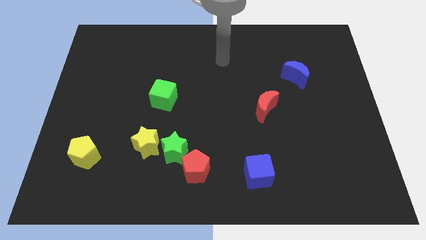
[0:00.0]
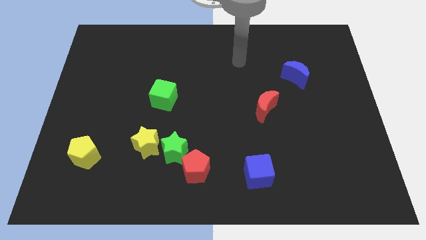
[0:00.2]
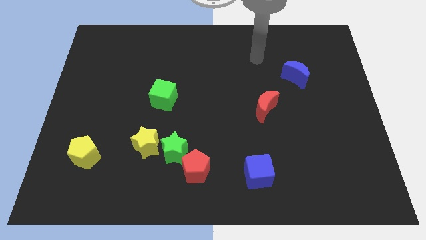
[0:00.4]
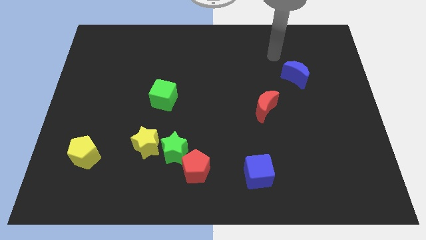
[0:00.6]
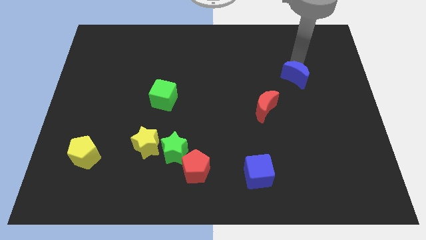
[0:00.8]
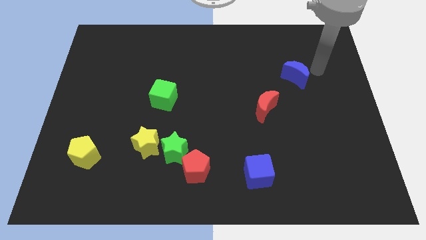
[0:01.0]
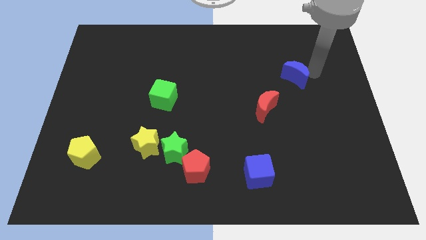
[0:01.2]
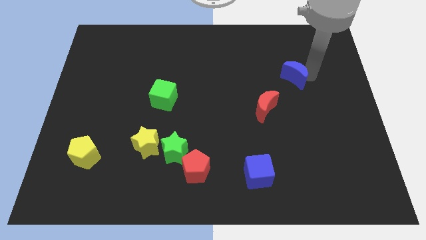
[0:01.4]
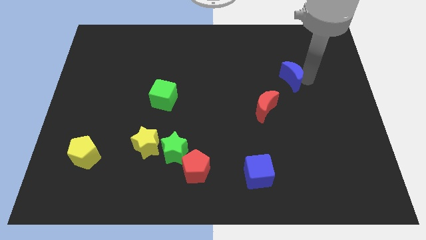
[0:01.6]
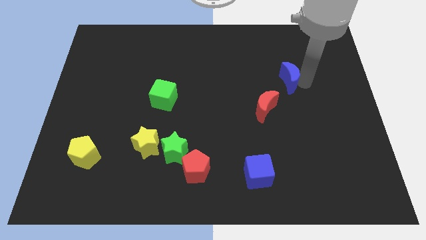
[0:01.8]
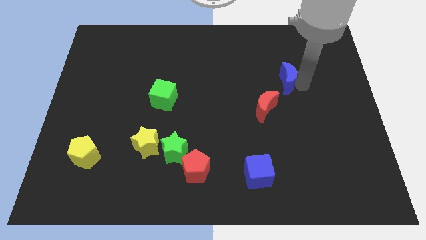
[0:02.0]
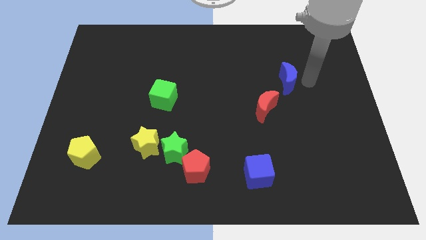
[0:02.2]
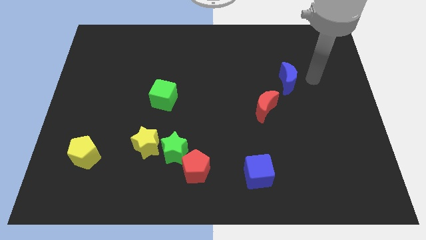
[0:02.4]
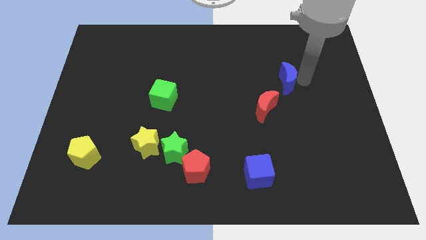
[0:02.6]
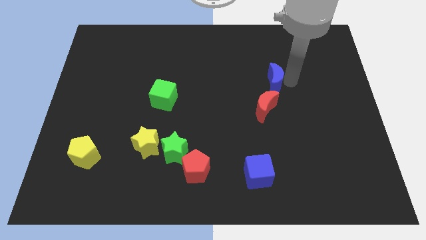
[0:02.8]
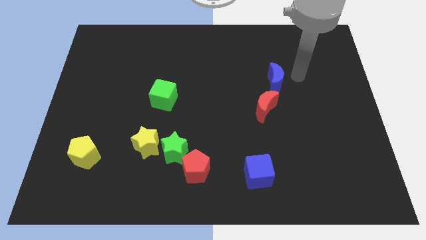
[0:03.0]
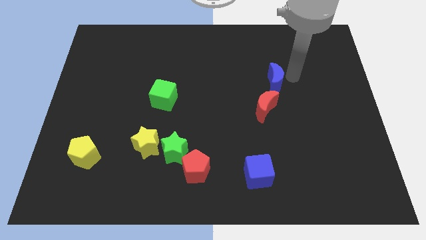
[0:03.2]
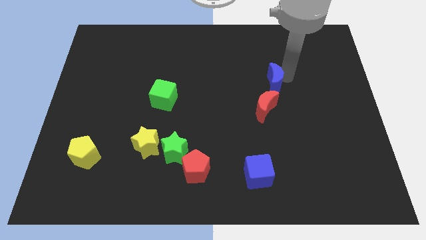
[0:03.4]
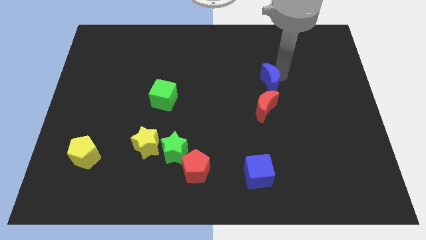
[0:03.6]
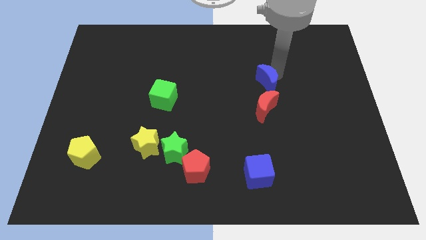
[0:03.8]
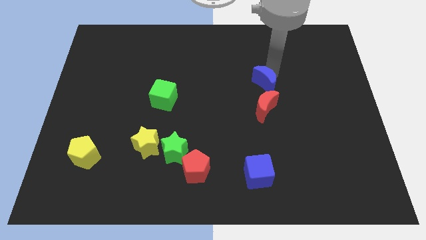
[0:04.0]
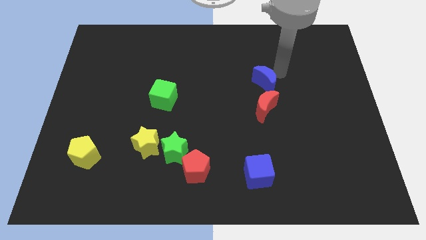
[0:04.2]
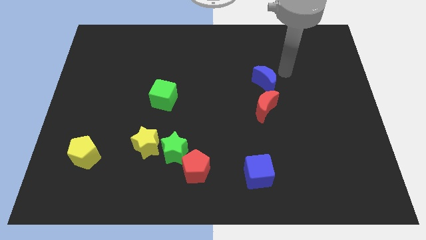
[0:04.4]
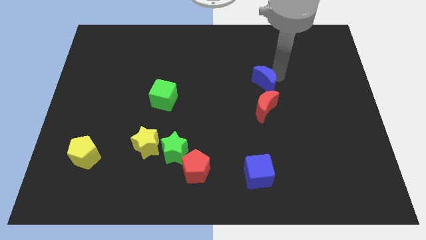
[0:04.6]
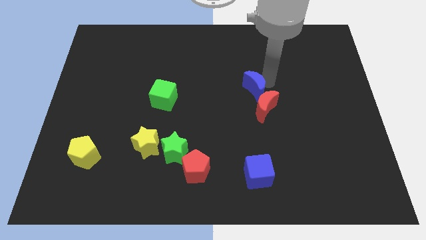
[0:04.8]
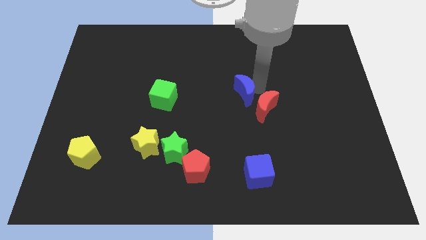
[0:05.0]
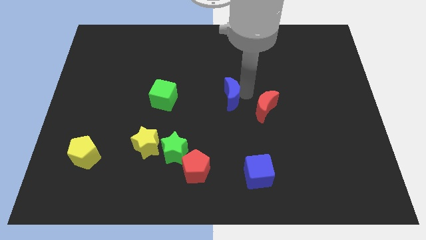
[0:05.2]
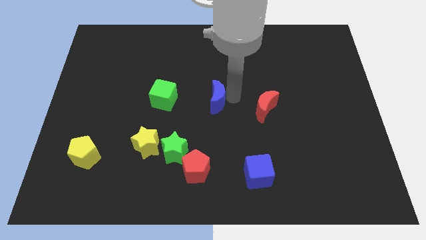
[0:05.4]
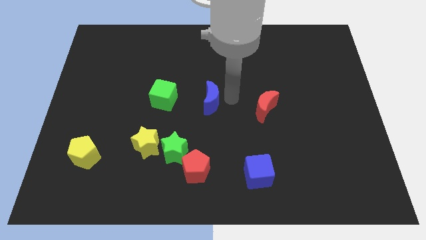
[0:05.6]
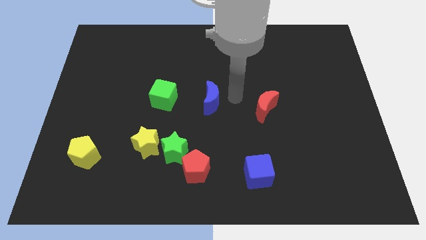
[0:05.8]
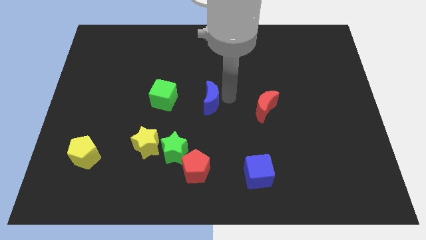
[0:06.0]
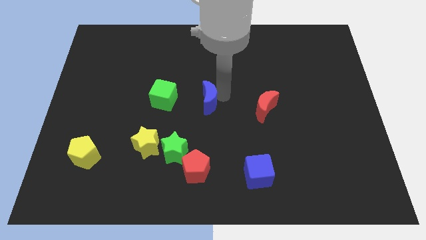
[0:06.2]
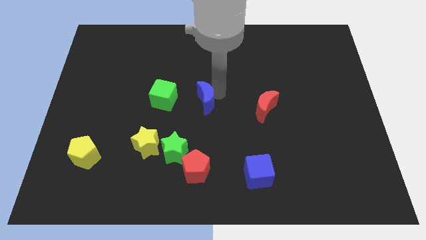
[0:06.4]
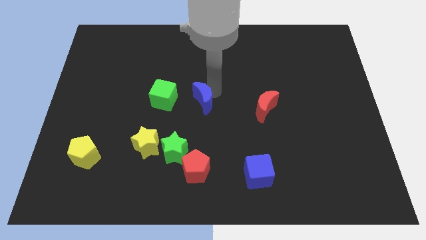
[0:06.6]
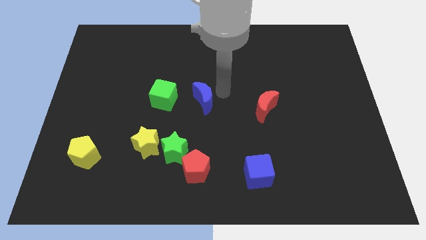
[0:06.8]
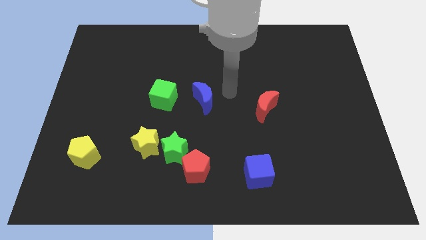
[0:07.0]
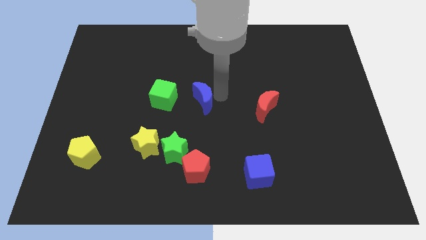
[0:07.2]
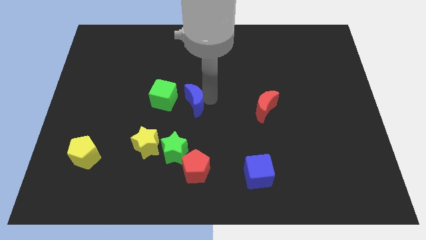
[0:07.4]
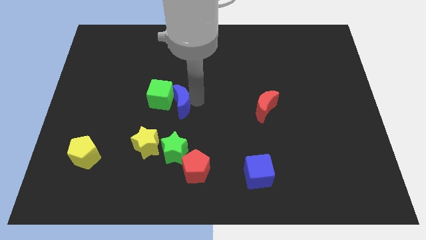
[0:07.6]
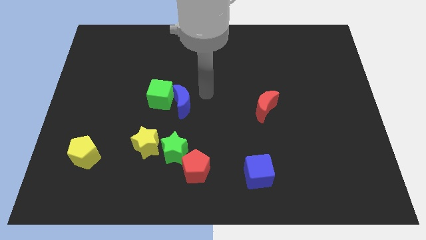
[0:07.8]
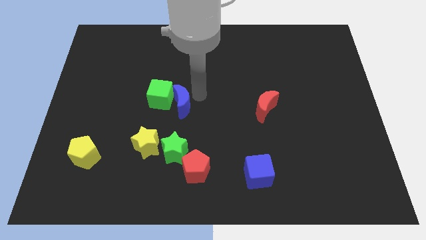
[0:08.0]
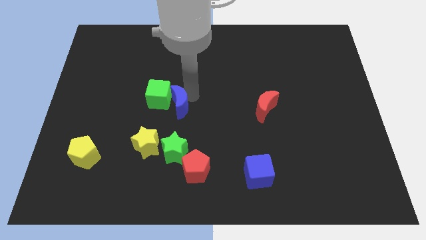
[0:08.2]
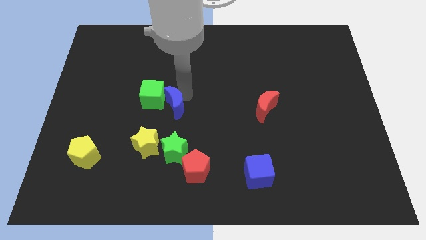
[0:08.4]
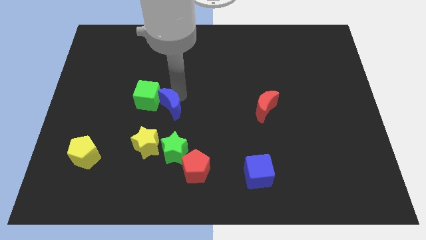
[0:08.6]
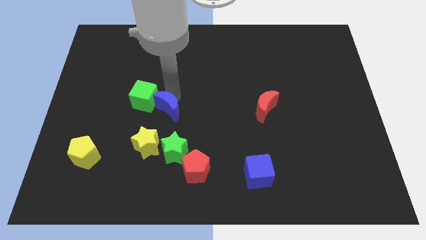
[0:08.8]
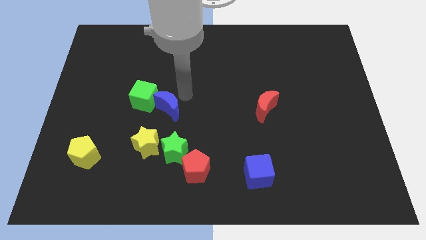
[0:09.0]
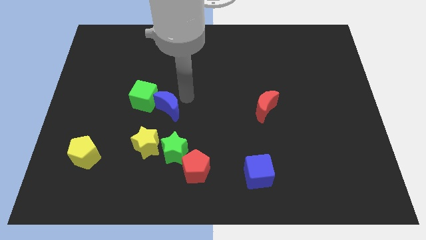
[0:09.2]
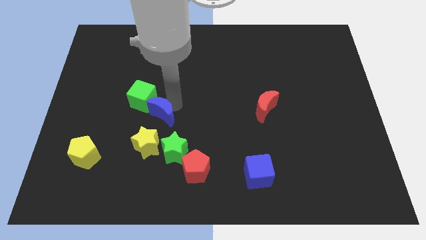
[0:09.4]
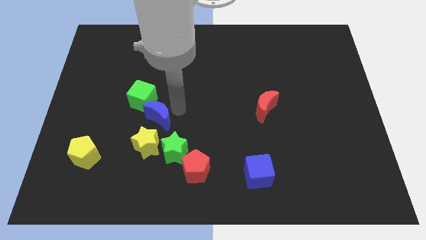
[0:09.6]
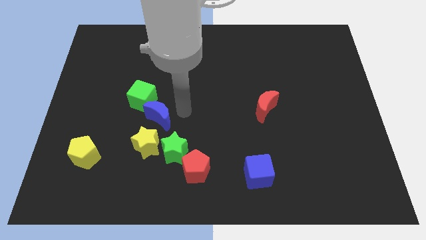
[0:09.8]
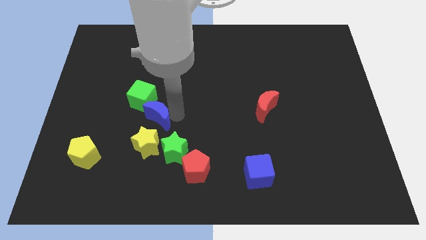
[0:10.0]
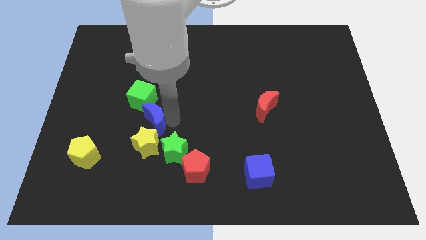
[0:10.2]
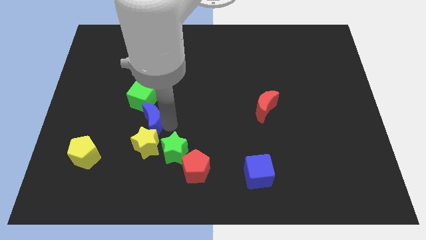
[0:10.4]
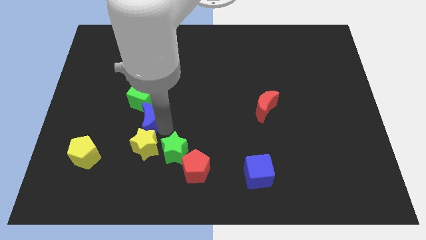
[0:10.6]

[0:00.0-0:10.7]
put the blue moon to the top left side of the yellow star

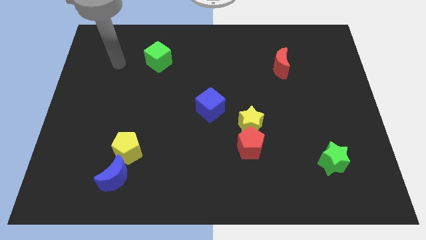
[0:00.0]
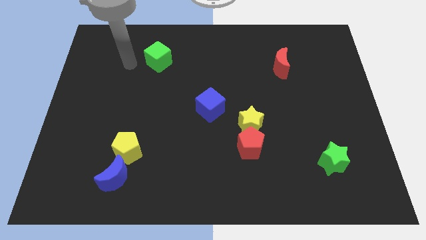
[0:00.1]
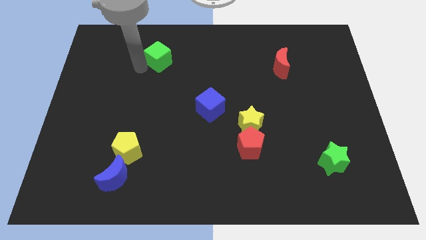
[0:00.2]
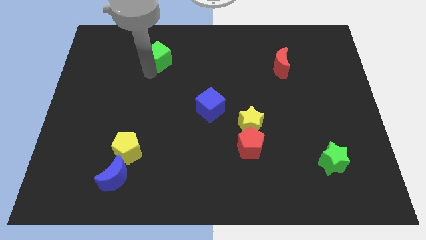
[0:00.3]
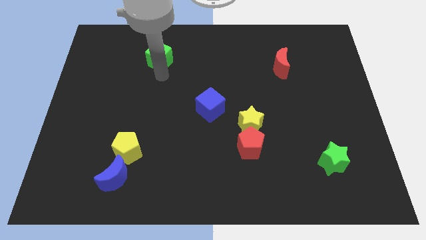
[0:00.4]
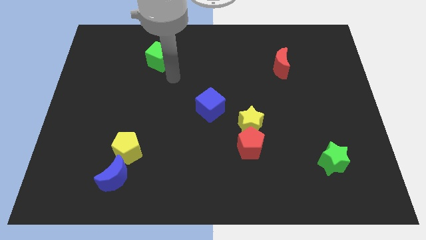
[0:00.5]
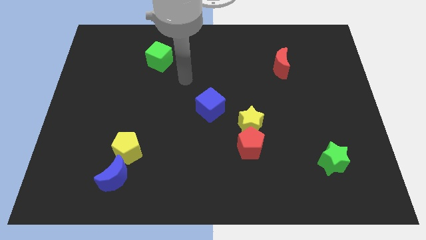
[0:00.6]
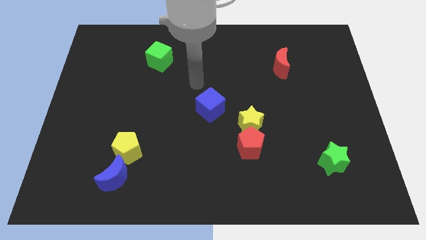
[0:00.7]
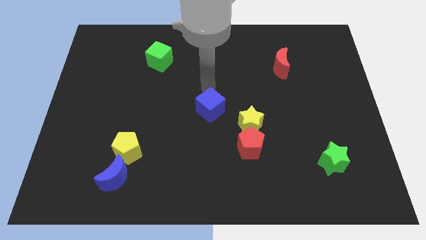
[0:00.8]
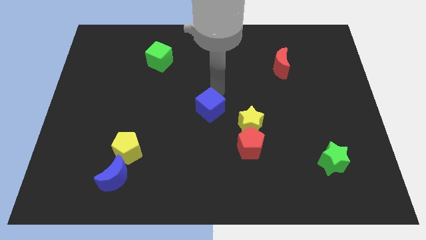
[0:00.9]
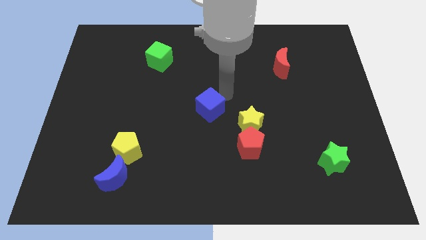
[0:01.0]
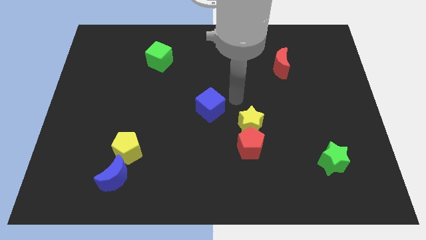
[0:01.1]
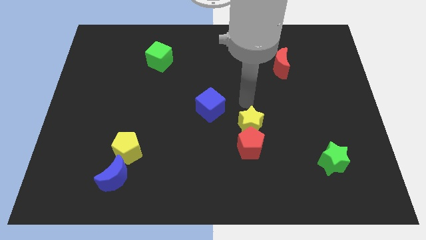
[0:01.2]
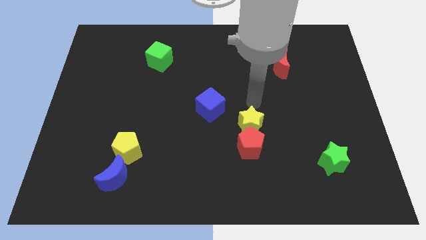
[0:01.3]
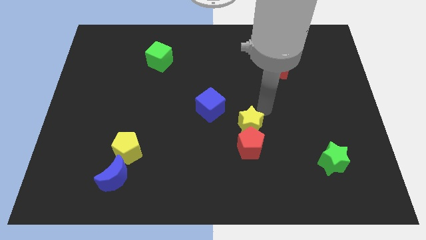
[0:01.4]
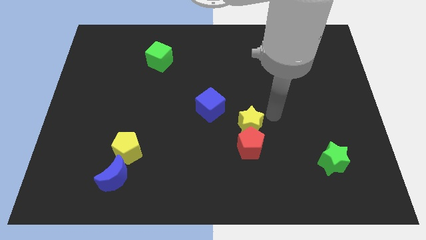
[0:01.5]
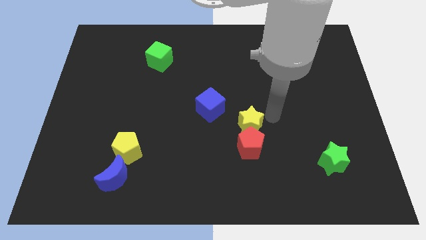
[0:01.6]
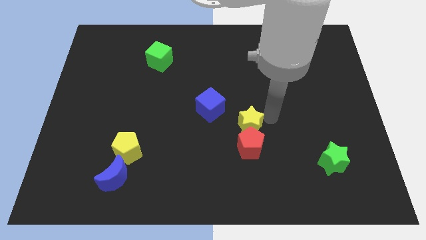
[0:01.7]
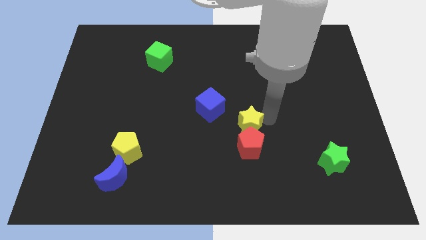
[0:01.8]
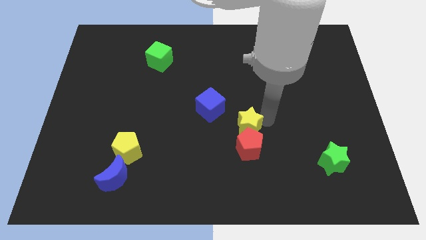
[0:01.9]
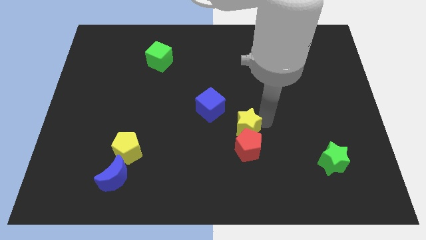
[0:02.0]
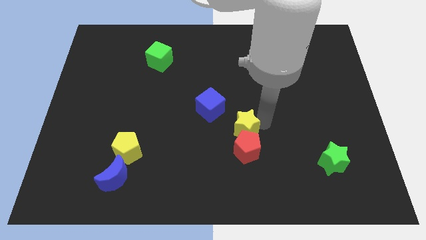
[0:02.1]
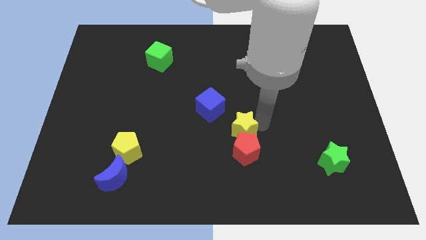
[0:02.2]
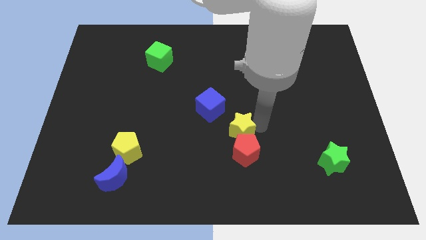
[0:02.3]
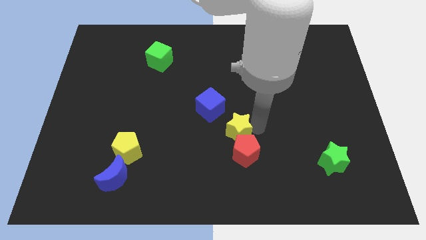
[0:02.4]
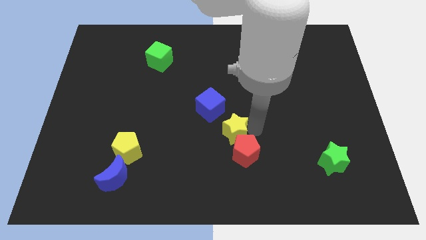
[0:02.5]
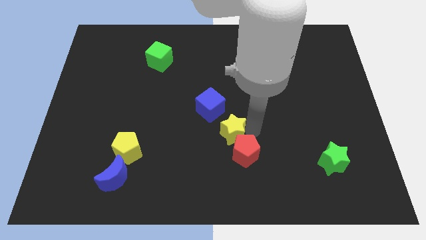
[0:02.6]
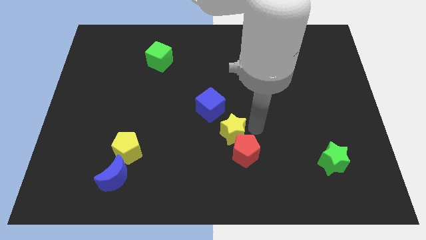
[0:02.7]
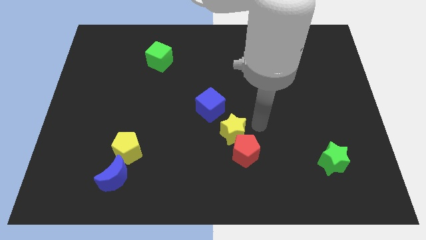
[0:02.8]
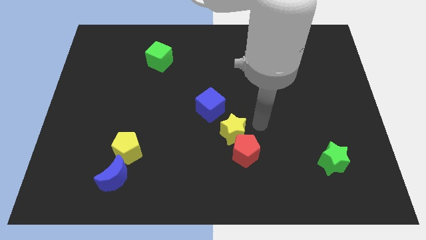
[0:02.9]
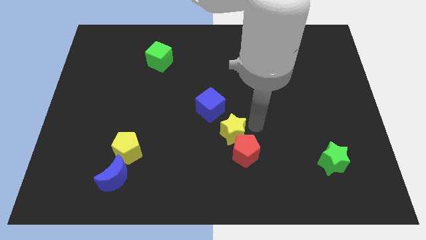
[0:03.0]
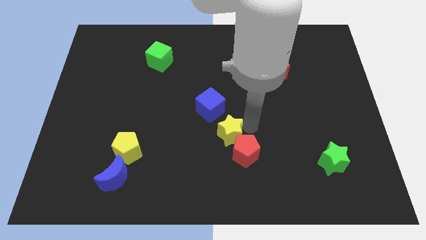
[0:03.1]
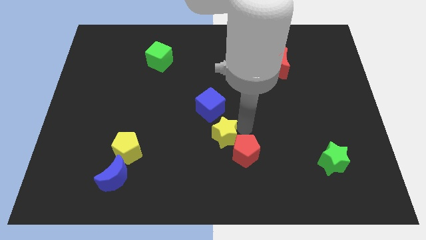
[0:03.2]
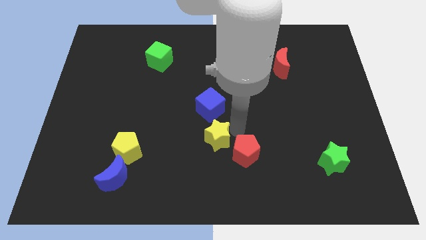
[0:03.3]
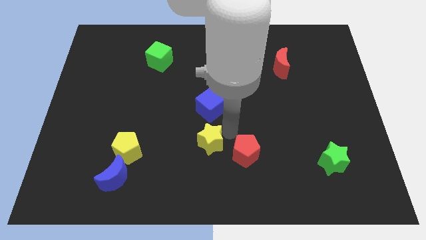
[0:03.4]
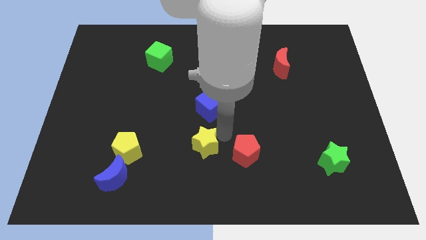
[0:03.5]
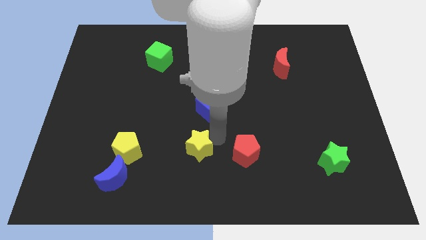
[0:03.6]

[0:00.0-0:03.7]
put the yellow star just right of the yellow pentagon
